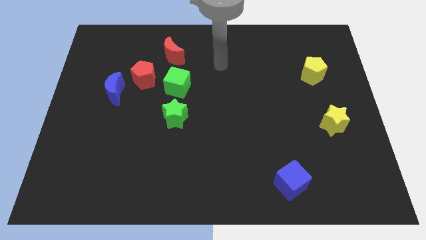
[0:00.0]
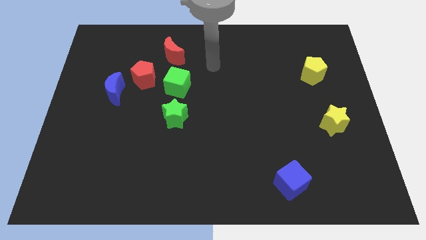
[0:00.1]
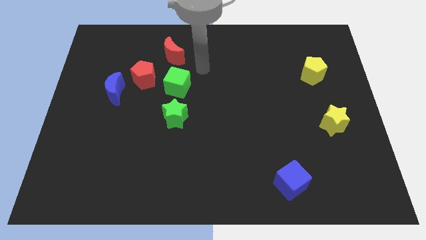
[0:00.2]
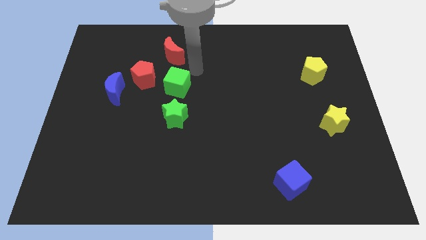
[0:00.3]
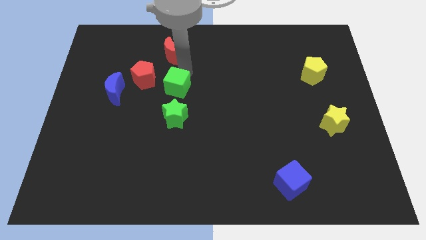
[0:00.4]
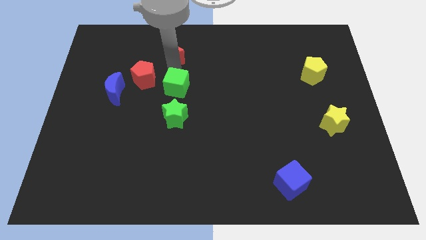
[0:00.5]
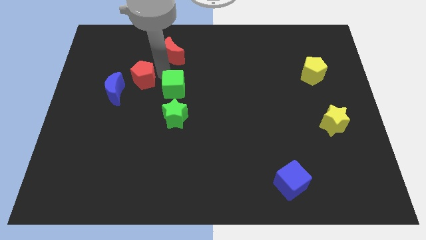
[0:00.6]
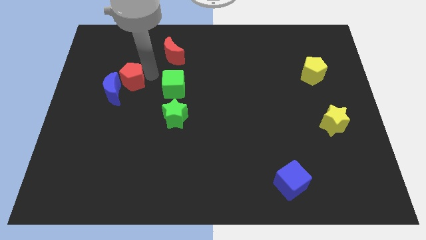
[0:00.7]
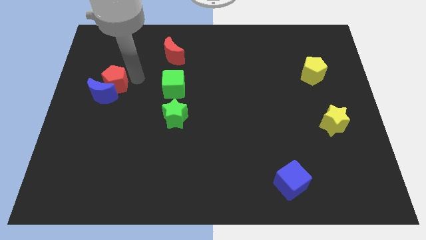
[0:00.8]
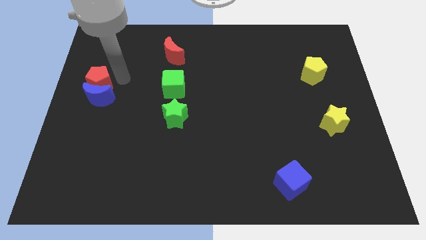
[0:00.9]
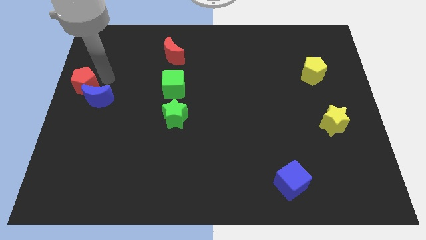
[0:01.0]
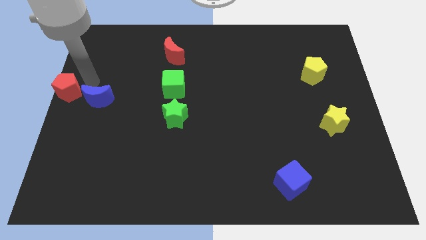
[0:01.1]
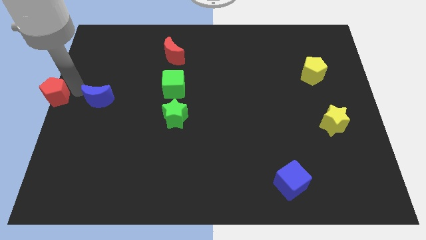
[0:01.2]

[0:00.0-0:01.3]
move the blue moon away from the red pentagon

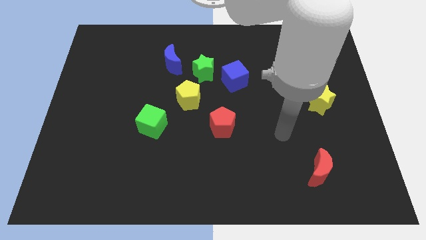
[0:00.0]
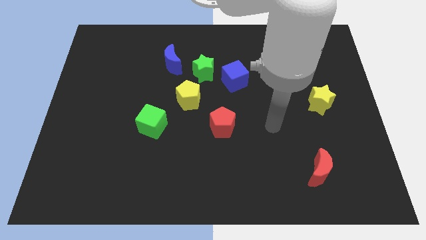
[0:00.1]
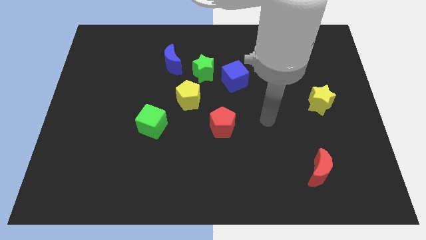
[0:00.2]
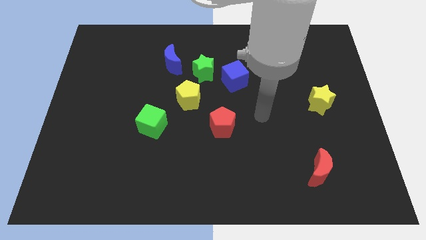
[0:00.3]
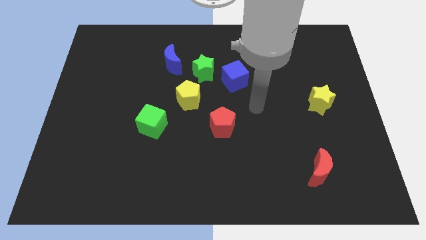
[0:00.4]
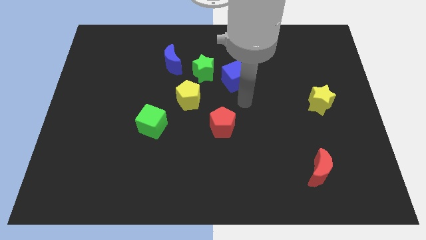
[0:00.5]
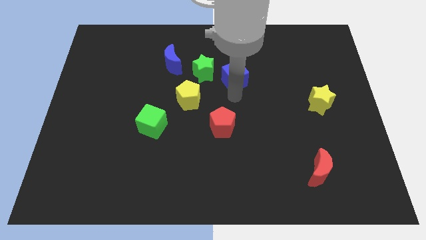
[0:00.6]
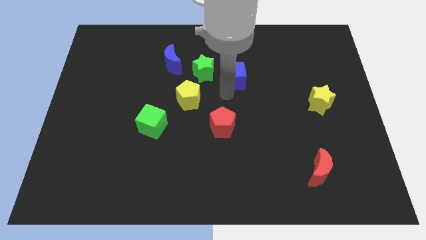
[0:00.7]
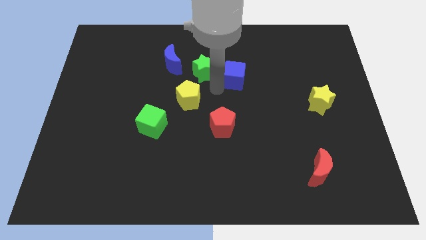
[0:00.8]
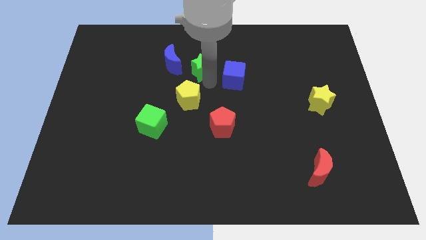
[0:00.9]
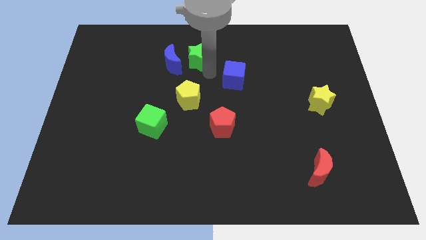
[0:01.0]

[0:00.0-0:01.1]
pull the blue cube apart from the green star

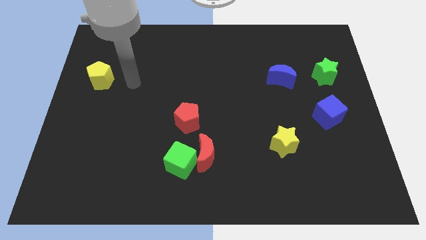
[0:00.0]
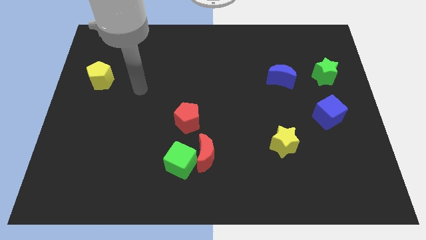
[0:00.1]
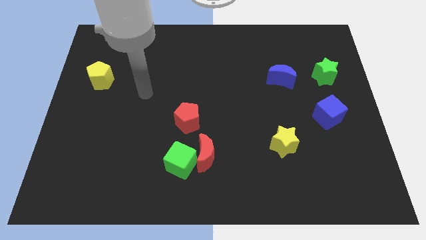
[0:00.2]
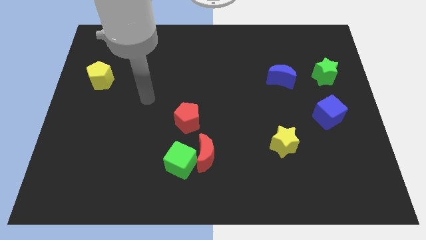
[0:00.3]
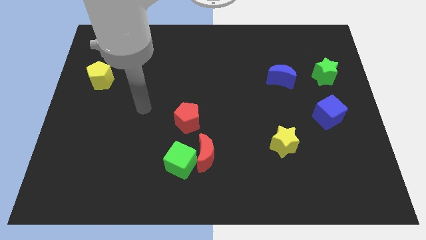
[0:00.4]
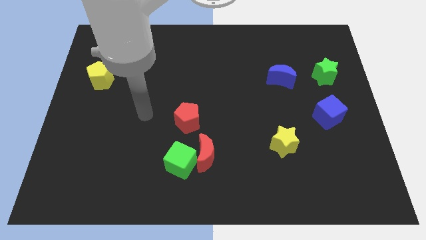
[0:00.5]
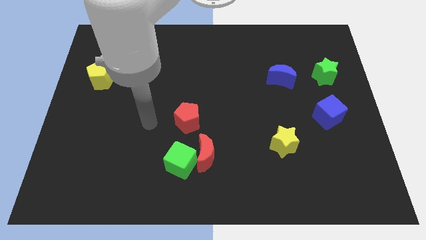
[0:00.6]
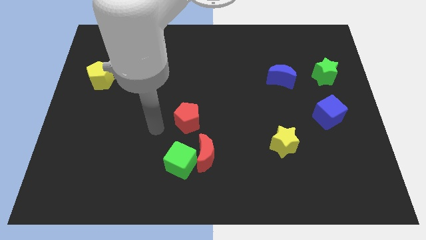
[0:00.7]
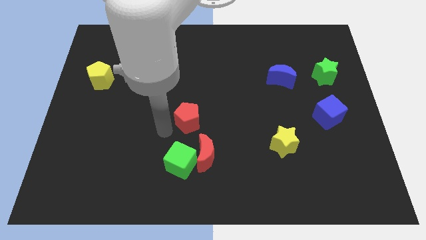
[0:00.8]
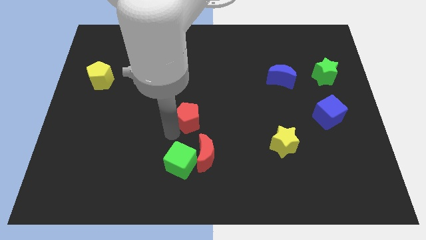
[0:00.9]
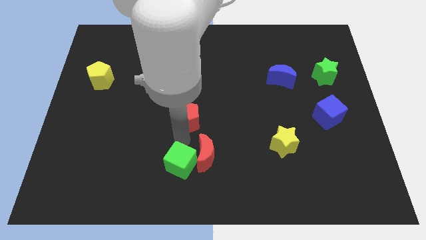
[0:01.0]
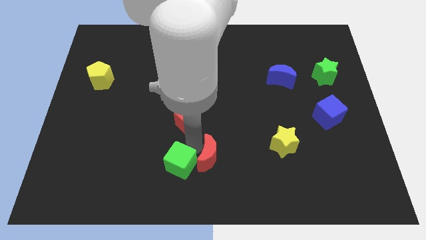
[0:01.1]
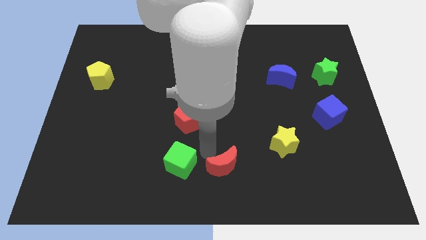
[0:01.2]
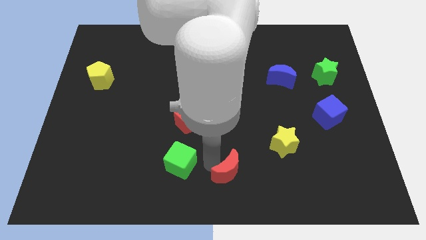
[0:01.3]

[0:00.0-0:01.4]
move the green cube away from the red moon

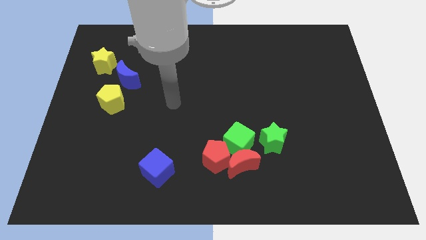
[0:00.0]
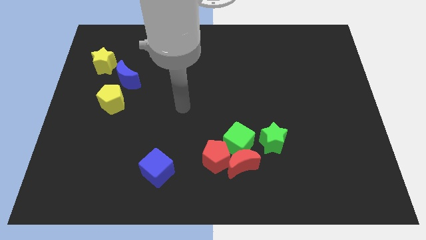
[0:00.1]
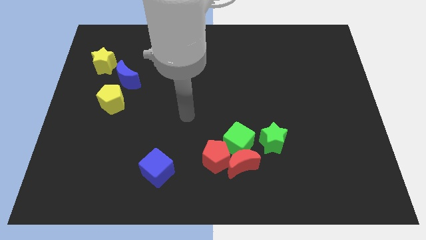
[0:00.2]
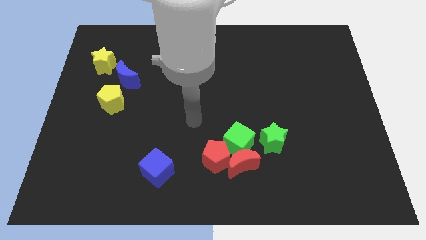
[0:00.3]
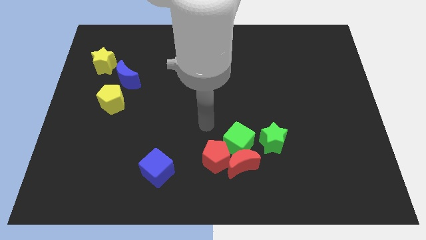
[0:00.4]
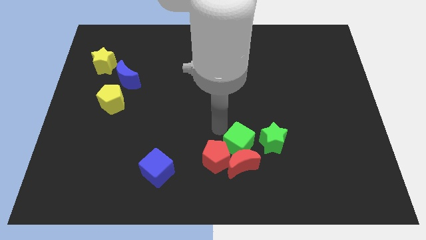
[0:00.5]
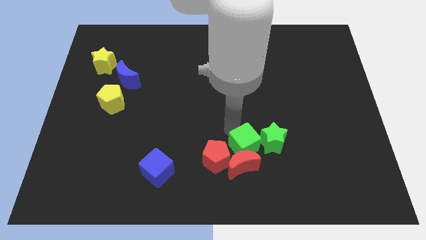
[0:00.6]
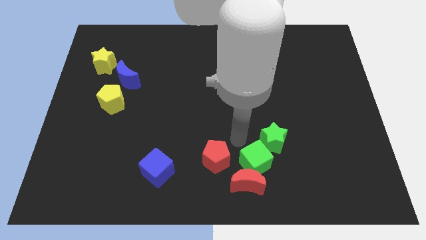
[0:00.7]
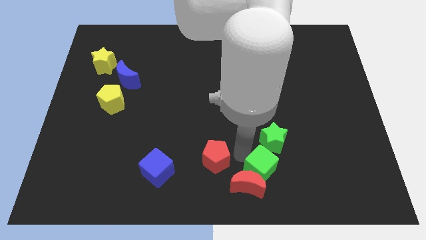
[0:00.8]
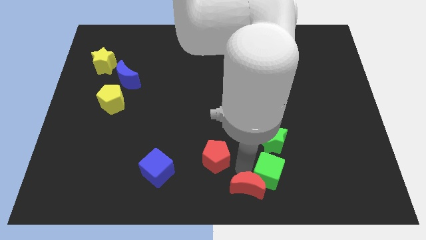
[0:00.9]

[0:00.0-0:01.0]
pull the red pentagon apart from the red moon and green cube

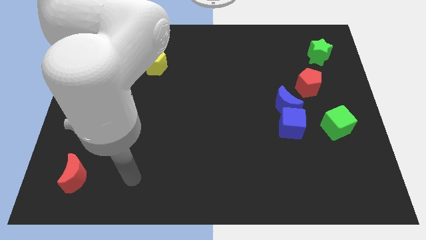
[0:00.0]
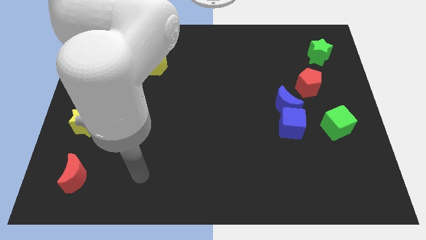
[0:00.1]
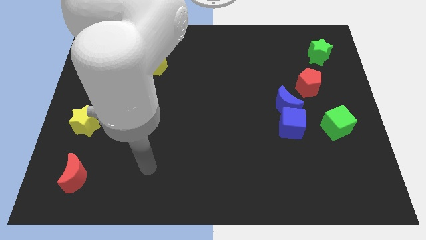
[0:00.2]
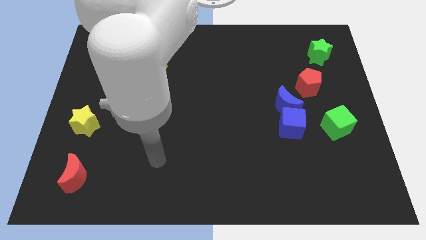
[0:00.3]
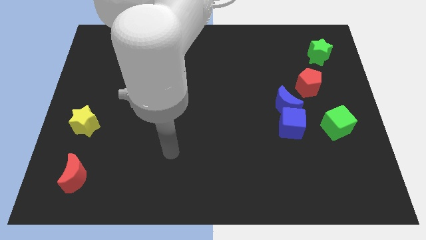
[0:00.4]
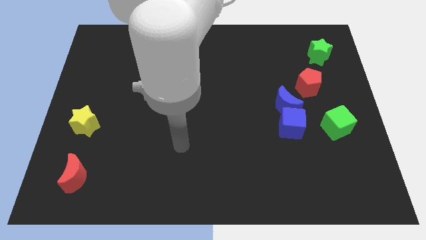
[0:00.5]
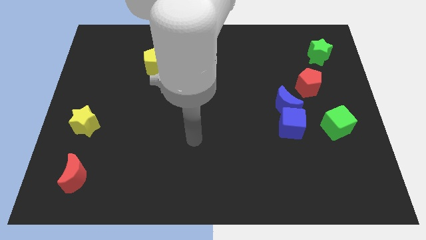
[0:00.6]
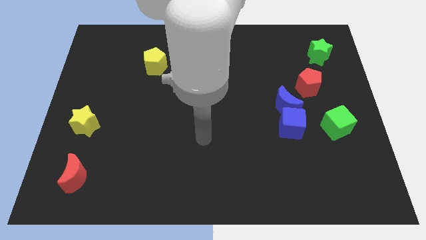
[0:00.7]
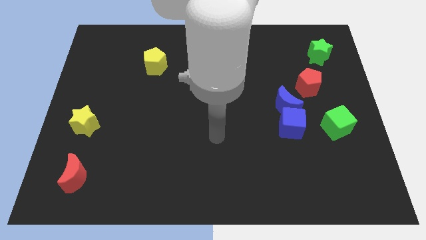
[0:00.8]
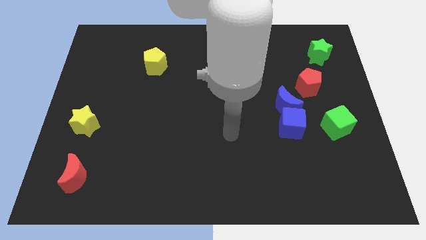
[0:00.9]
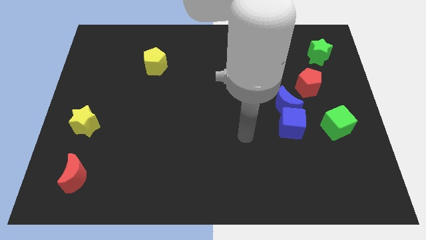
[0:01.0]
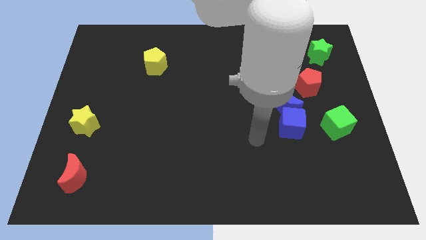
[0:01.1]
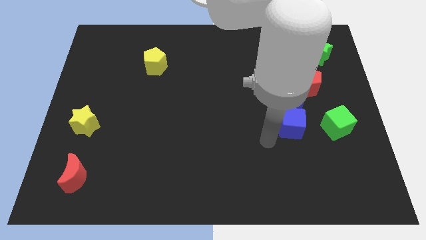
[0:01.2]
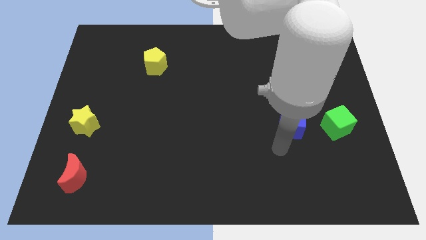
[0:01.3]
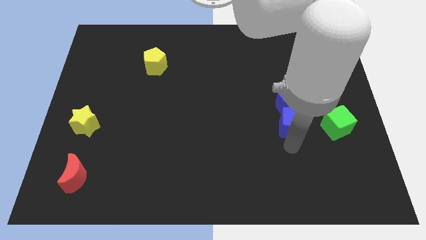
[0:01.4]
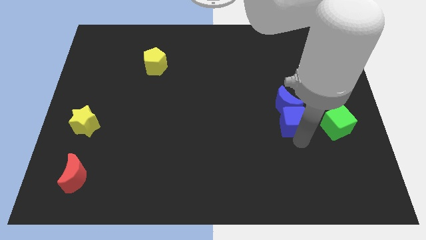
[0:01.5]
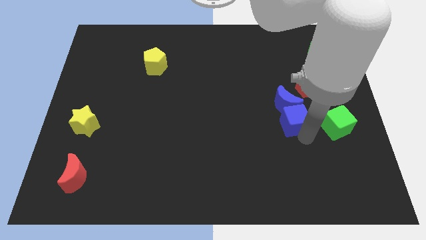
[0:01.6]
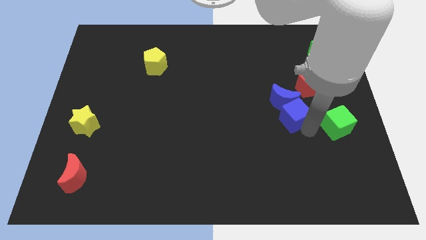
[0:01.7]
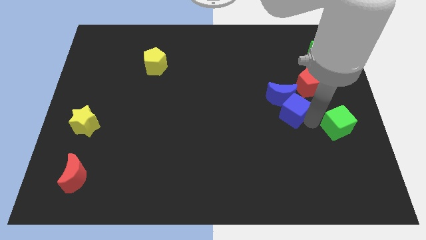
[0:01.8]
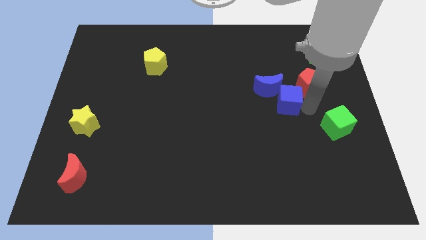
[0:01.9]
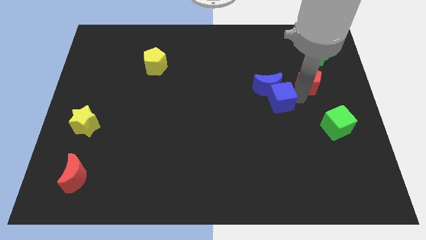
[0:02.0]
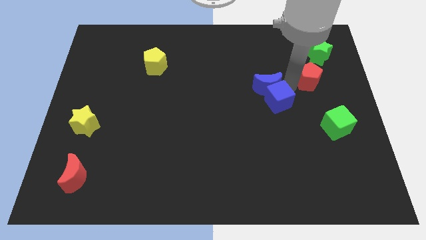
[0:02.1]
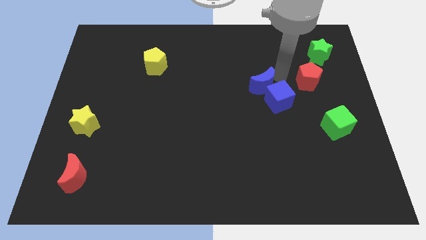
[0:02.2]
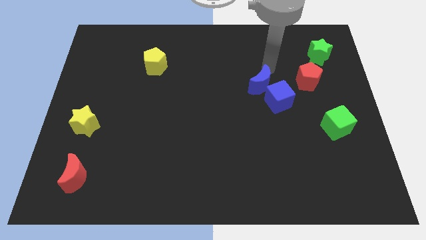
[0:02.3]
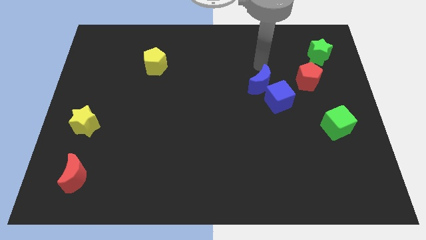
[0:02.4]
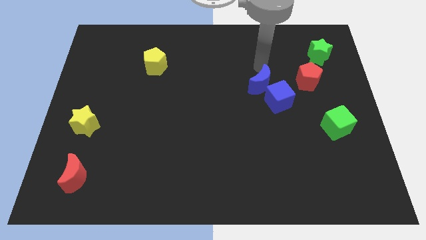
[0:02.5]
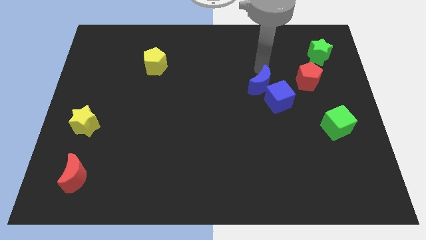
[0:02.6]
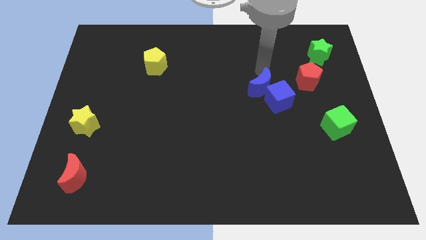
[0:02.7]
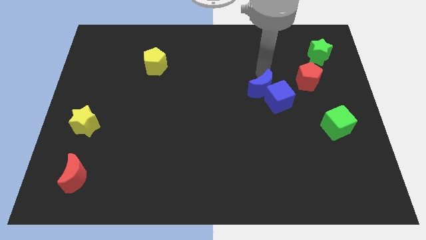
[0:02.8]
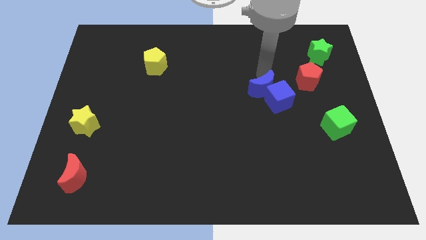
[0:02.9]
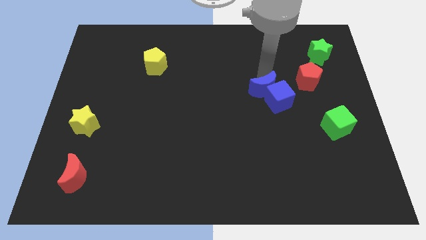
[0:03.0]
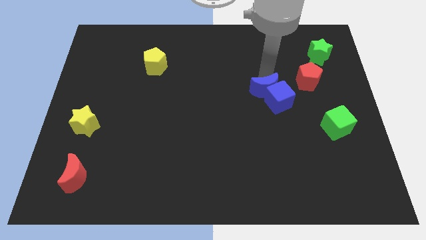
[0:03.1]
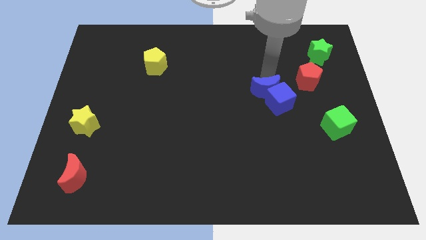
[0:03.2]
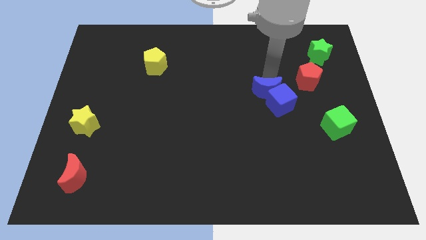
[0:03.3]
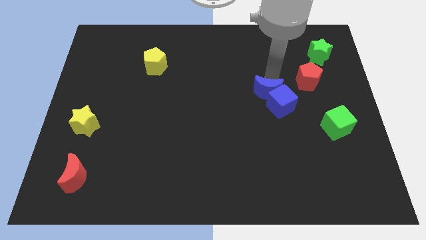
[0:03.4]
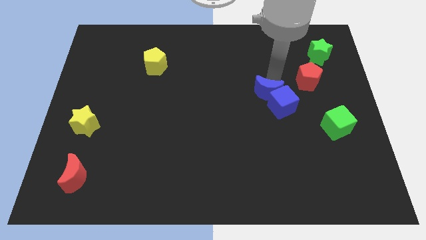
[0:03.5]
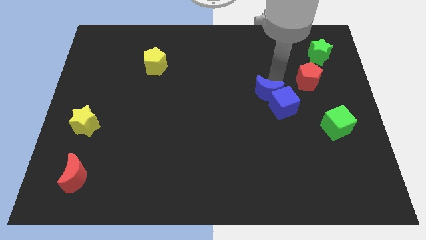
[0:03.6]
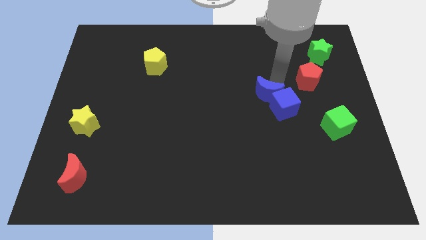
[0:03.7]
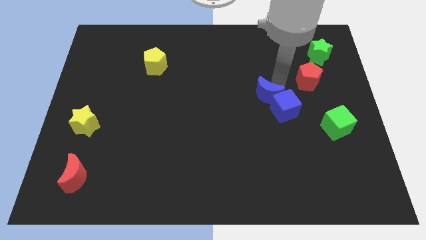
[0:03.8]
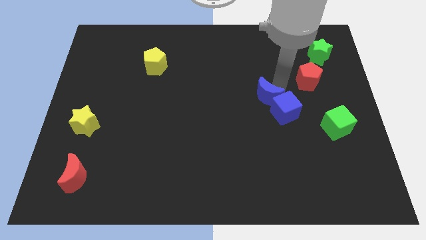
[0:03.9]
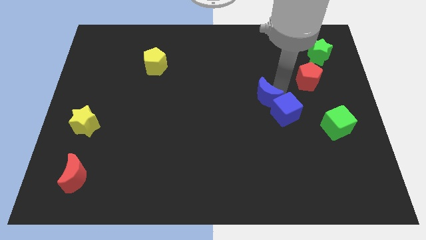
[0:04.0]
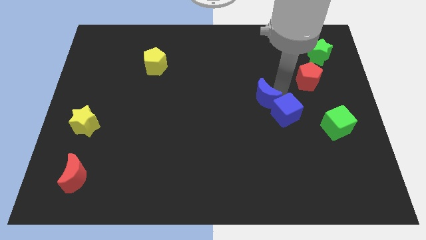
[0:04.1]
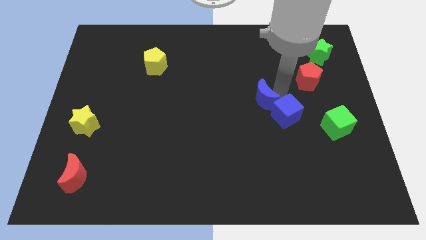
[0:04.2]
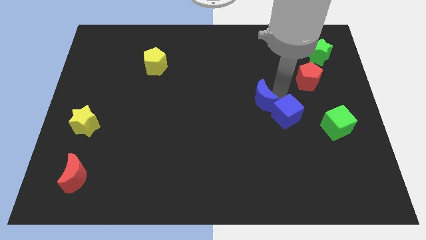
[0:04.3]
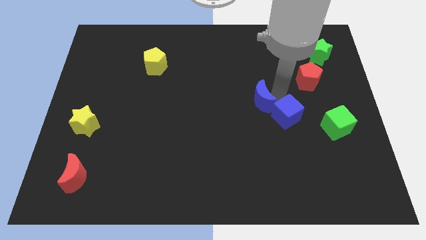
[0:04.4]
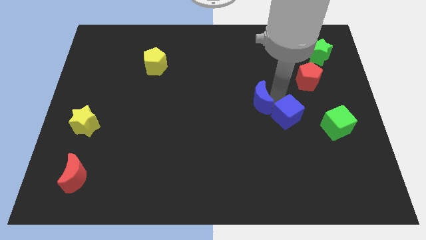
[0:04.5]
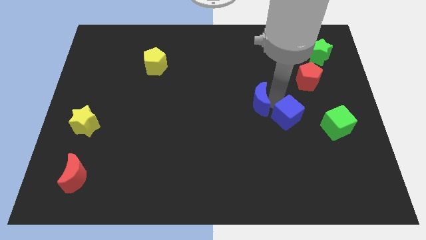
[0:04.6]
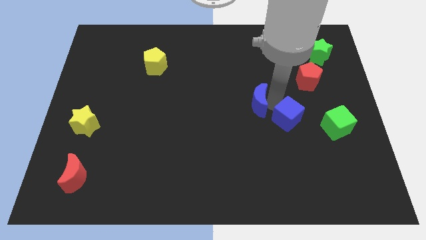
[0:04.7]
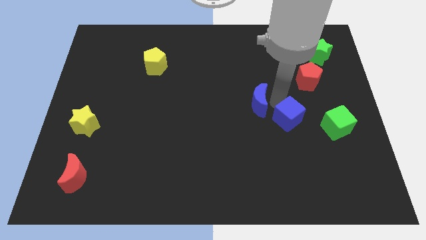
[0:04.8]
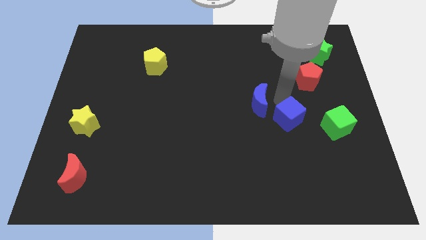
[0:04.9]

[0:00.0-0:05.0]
move the blue moon away from the blue cube and red pentagon
